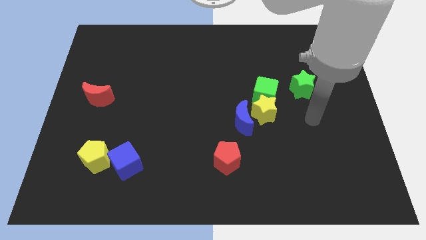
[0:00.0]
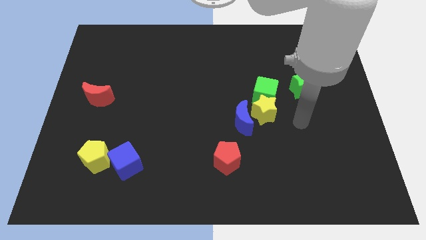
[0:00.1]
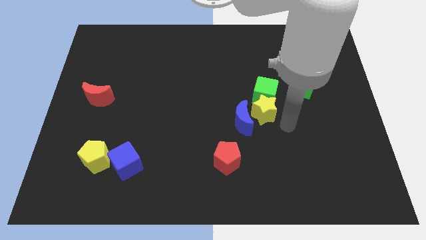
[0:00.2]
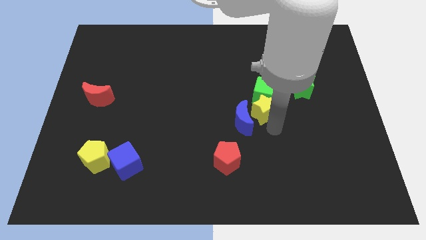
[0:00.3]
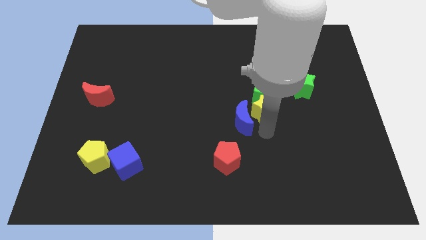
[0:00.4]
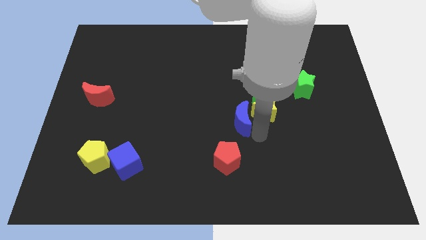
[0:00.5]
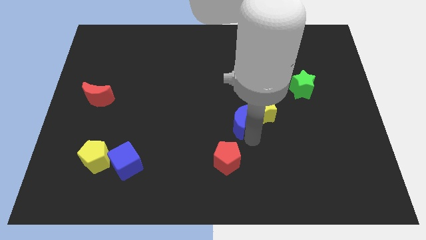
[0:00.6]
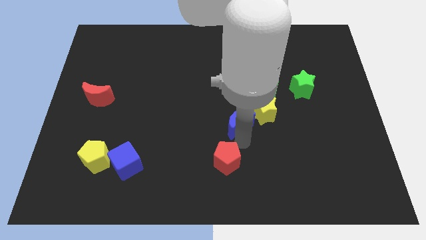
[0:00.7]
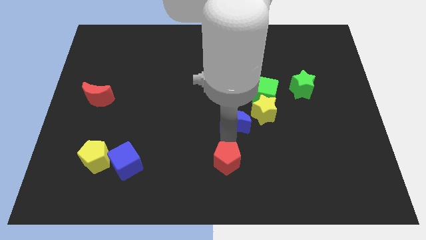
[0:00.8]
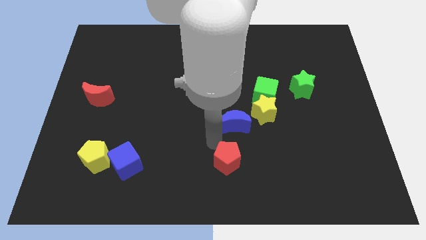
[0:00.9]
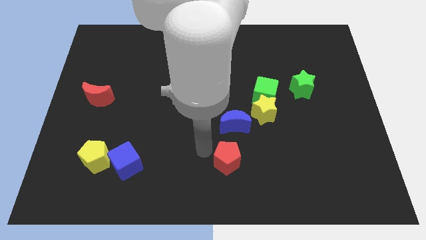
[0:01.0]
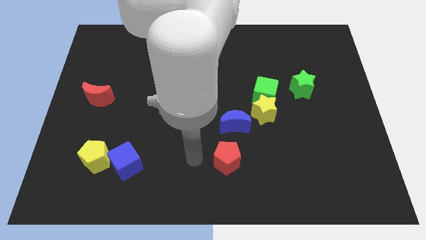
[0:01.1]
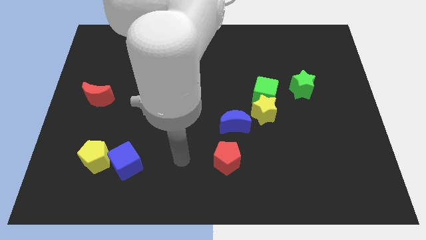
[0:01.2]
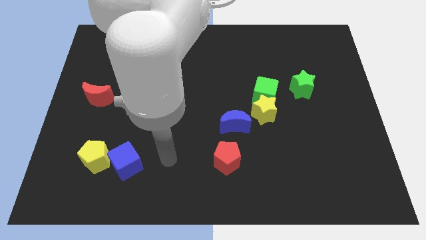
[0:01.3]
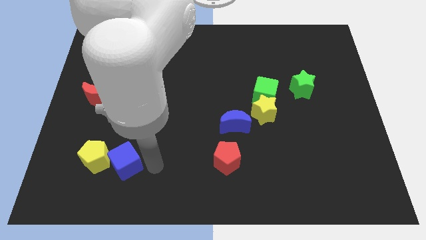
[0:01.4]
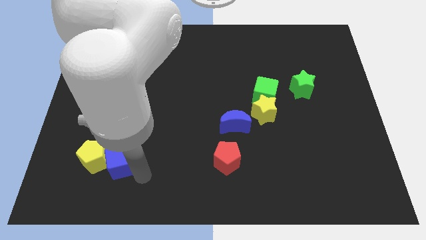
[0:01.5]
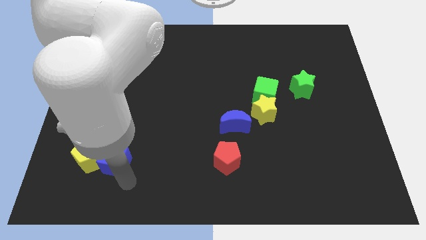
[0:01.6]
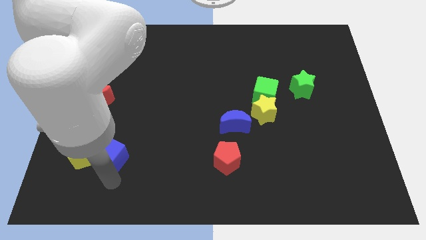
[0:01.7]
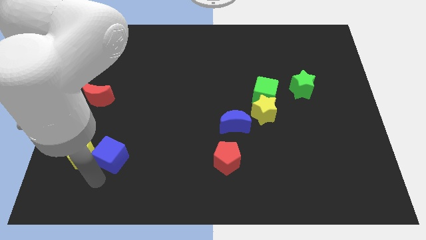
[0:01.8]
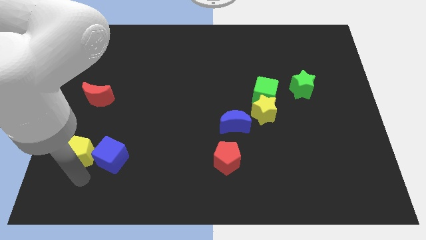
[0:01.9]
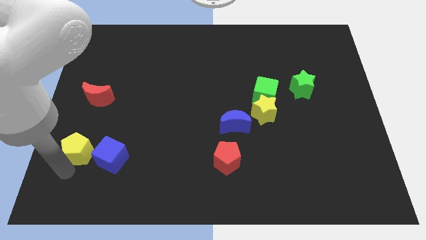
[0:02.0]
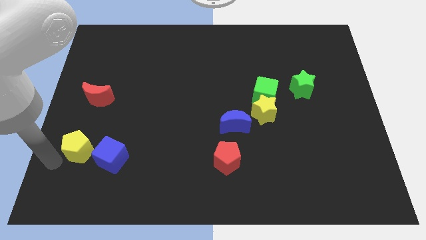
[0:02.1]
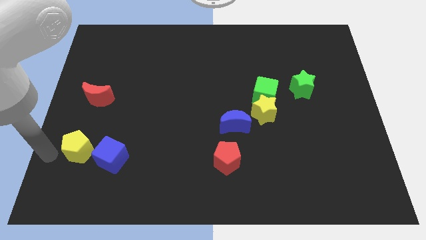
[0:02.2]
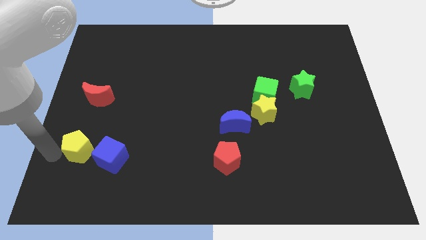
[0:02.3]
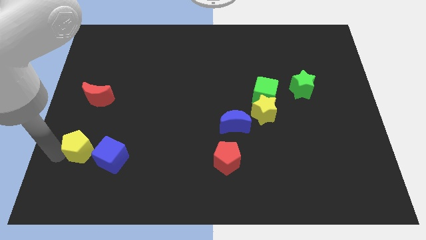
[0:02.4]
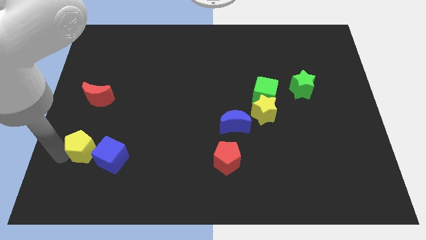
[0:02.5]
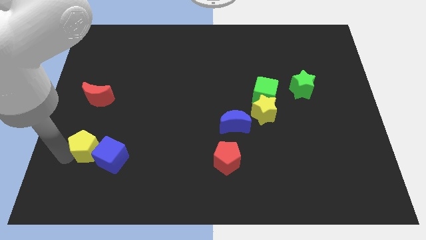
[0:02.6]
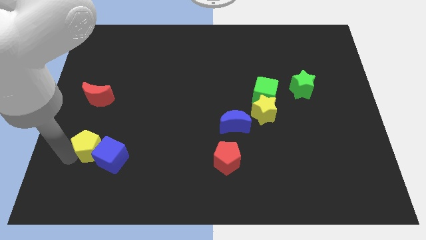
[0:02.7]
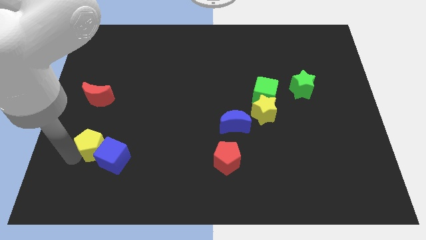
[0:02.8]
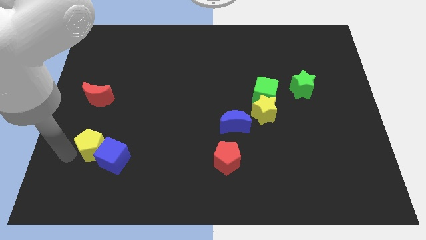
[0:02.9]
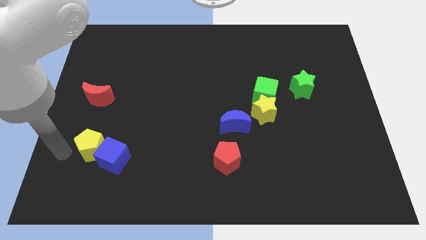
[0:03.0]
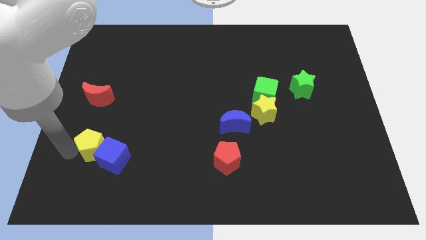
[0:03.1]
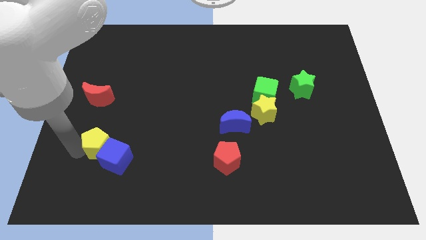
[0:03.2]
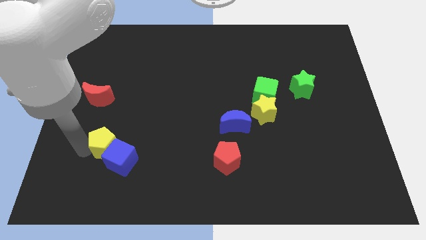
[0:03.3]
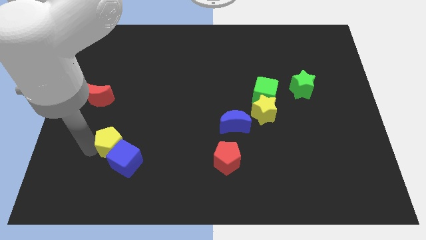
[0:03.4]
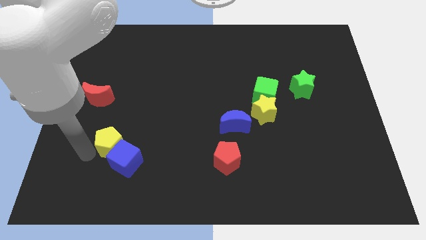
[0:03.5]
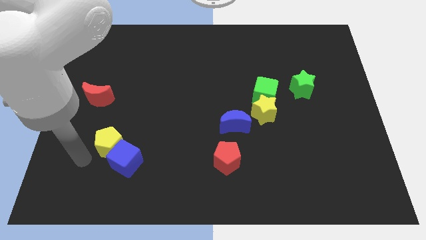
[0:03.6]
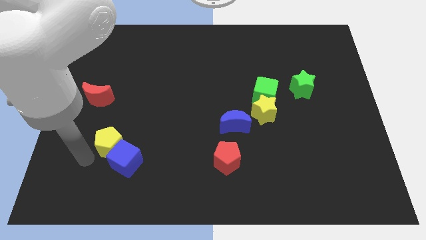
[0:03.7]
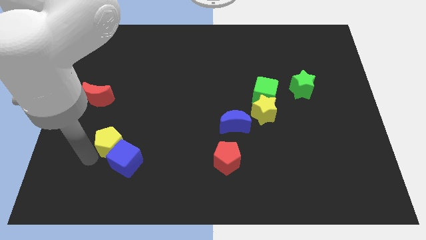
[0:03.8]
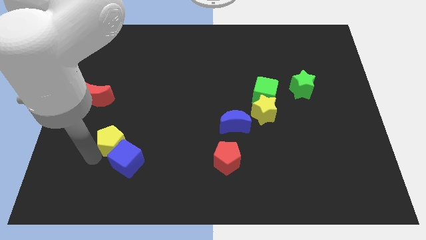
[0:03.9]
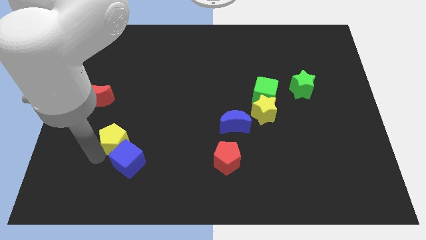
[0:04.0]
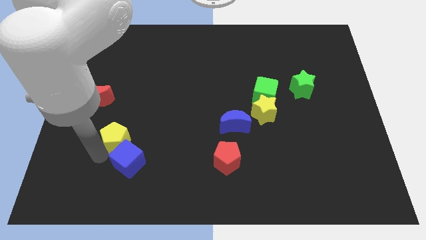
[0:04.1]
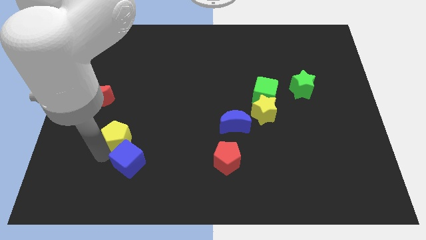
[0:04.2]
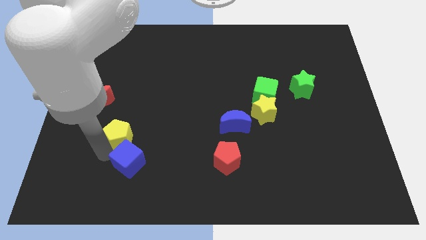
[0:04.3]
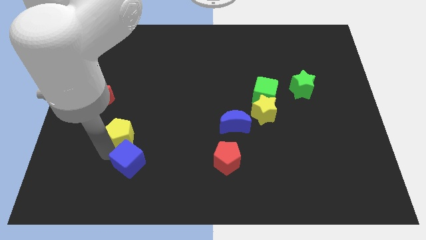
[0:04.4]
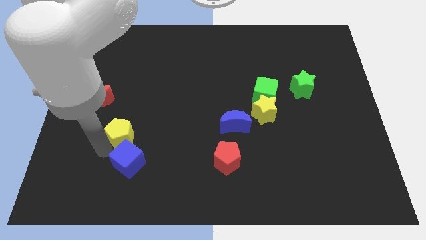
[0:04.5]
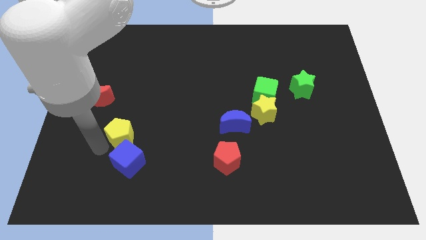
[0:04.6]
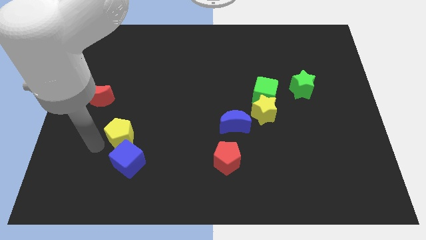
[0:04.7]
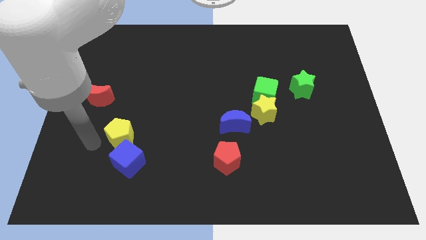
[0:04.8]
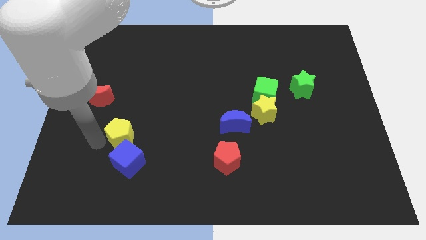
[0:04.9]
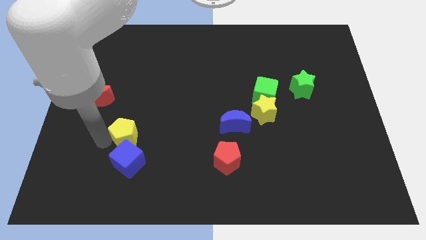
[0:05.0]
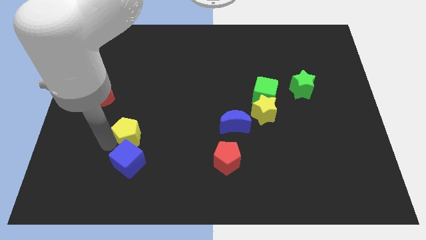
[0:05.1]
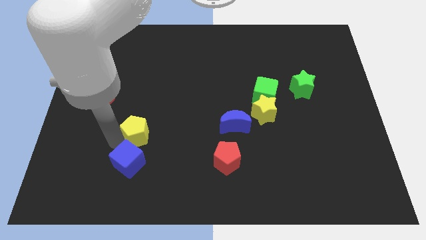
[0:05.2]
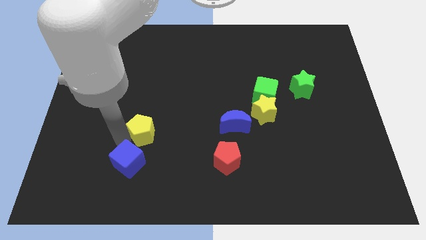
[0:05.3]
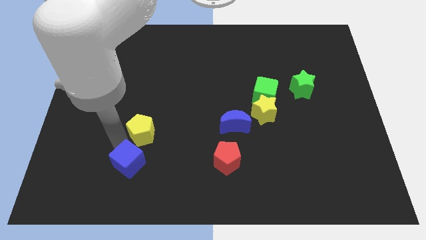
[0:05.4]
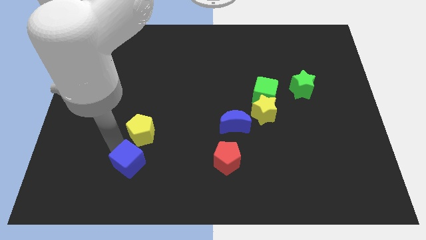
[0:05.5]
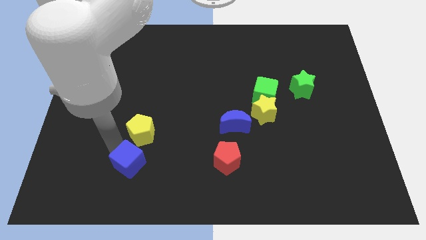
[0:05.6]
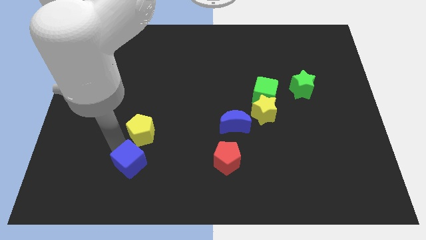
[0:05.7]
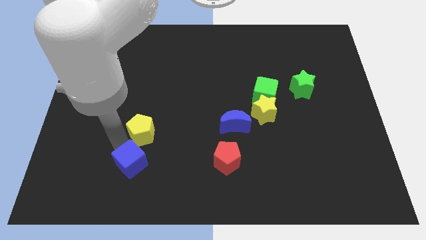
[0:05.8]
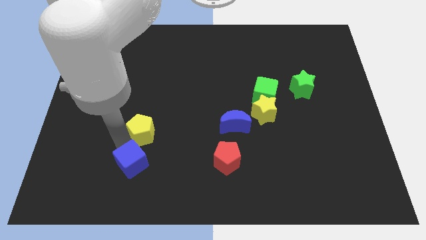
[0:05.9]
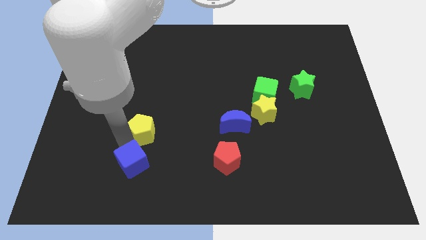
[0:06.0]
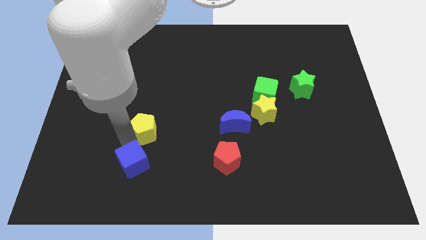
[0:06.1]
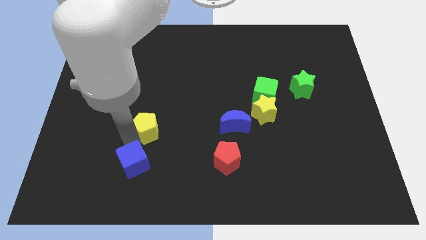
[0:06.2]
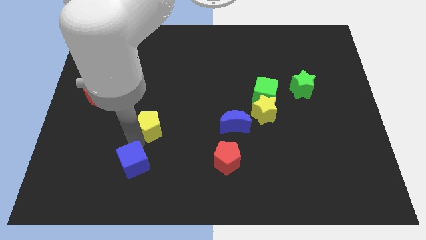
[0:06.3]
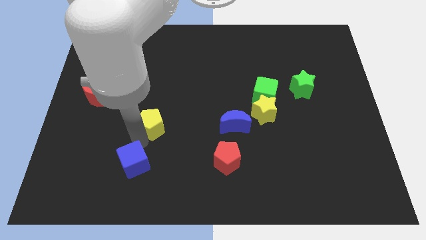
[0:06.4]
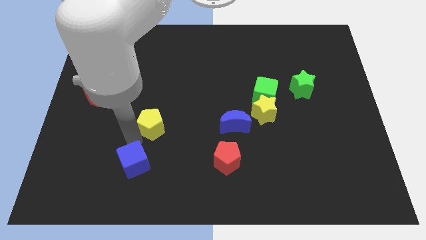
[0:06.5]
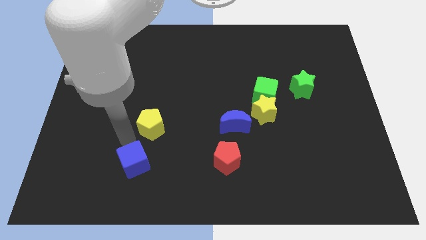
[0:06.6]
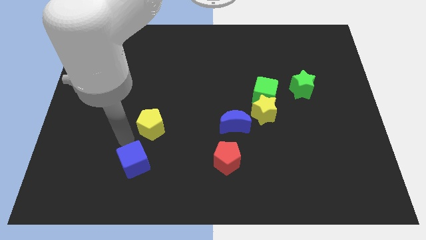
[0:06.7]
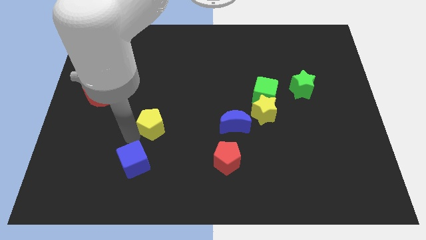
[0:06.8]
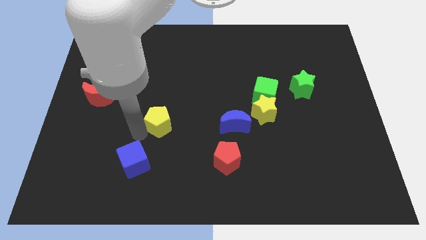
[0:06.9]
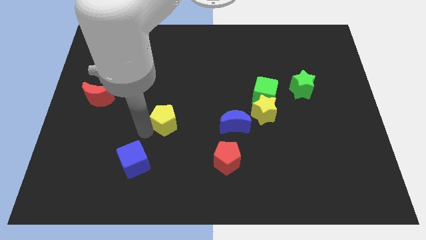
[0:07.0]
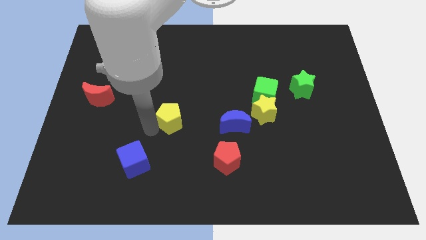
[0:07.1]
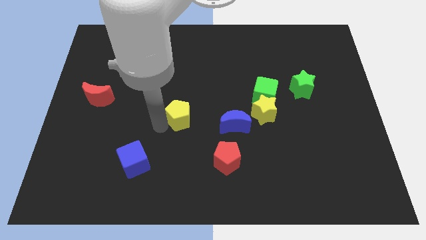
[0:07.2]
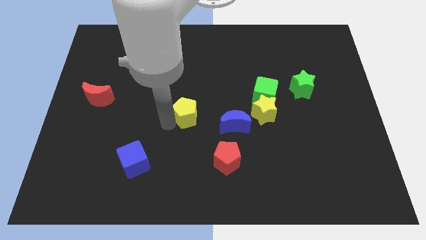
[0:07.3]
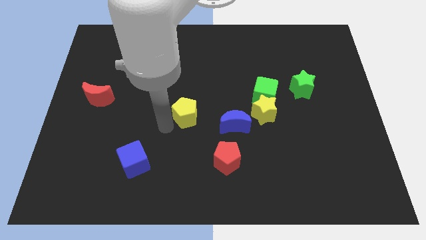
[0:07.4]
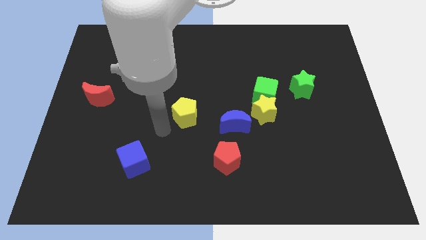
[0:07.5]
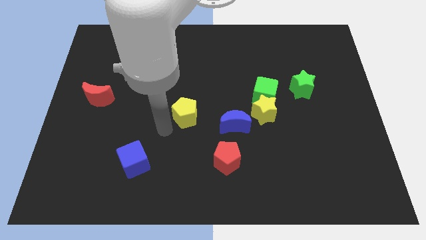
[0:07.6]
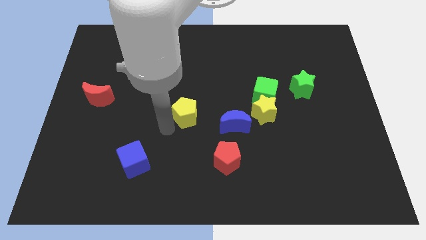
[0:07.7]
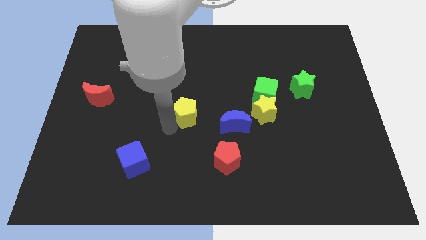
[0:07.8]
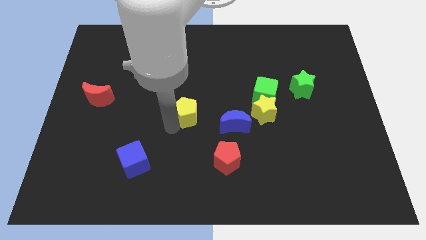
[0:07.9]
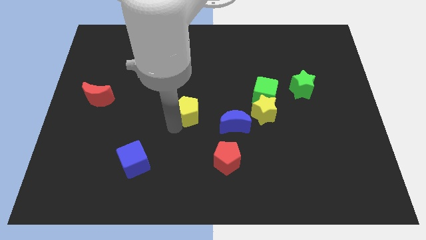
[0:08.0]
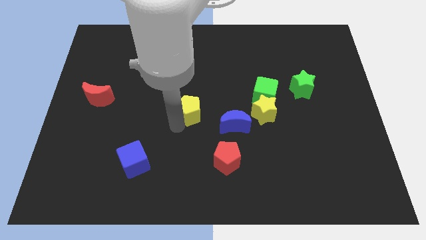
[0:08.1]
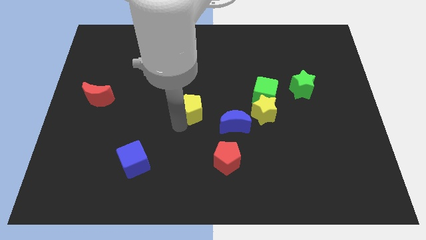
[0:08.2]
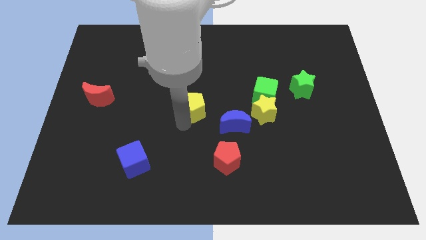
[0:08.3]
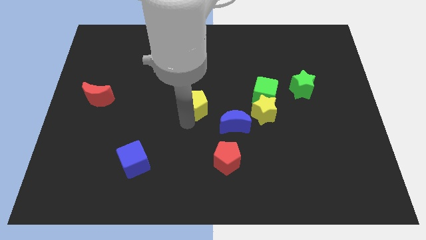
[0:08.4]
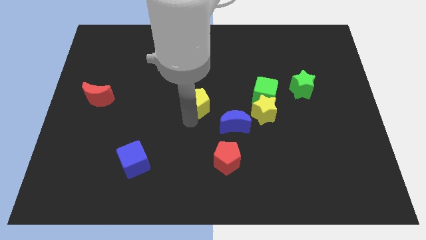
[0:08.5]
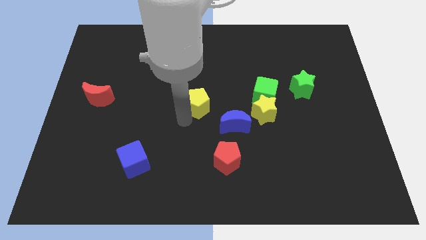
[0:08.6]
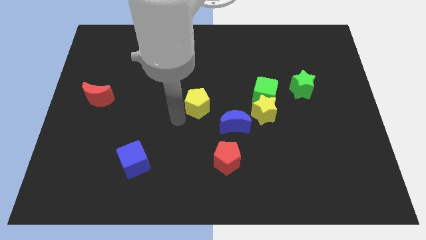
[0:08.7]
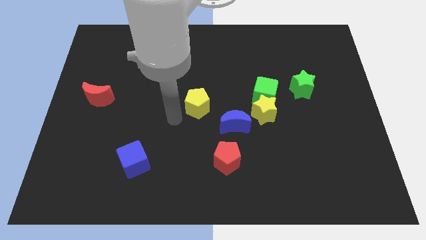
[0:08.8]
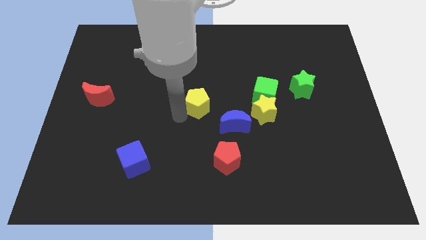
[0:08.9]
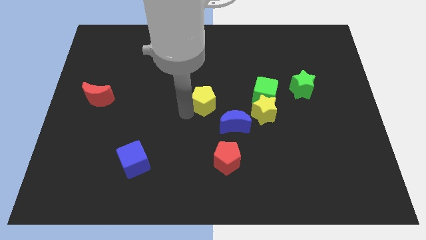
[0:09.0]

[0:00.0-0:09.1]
move the yellow pentagon just left of the green cube
